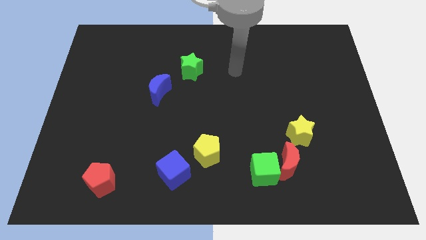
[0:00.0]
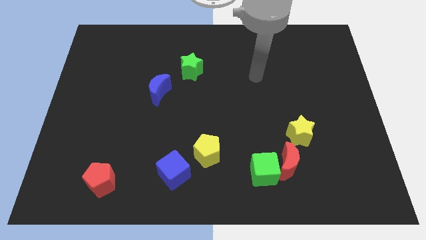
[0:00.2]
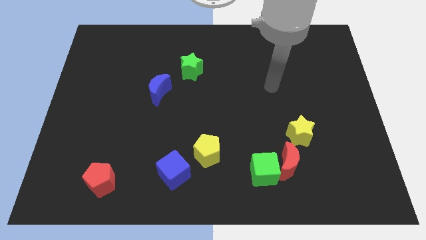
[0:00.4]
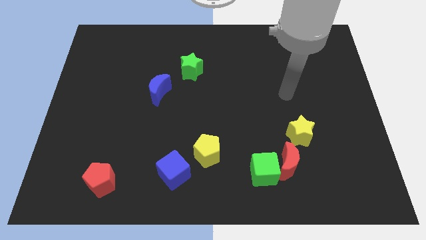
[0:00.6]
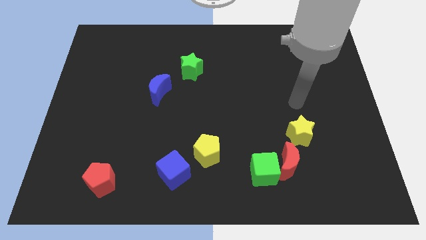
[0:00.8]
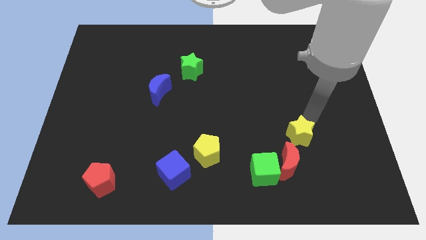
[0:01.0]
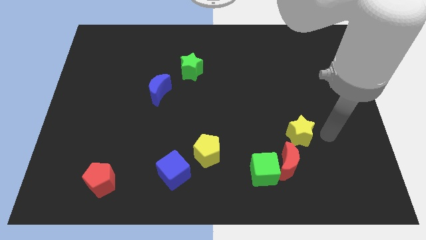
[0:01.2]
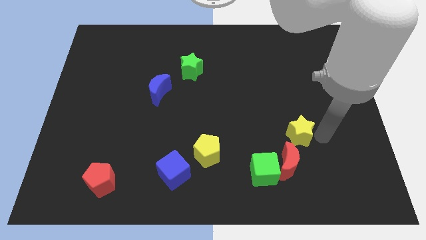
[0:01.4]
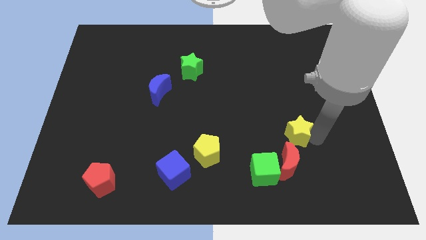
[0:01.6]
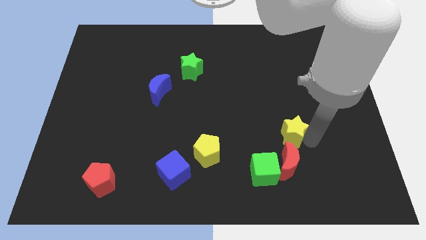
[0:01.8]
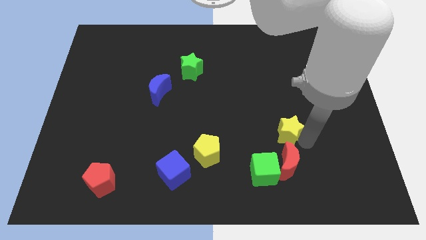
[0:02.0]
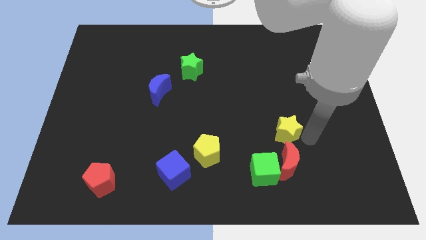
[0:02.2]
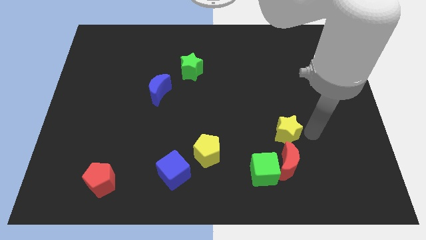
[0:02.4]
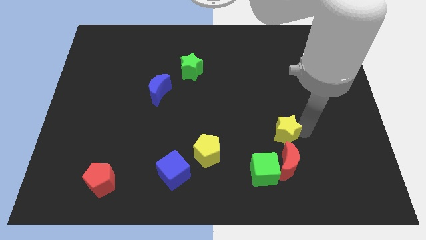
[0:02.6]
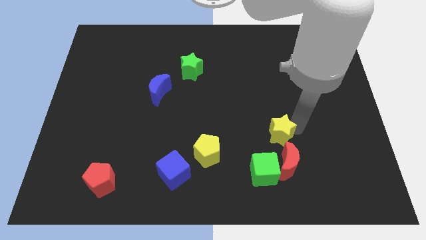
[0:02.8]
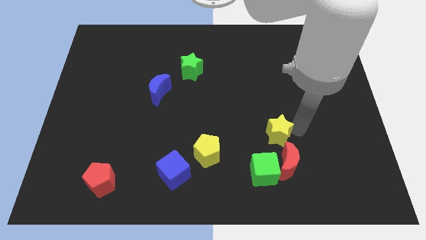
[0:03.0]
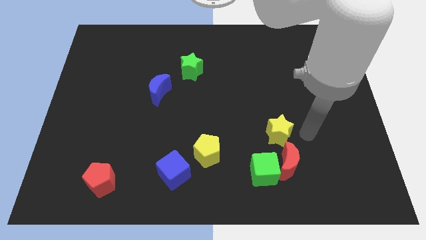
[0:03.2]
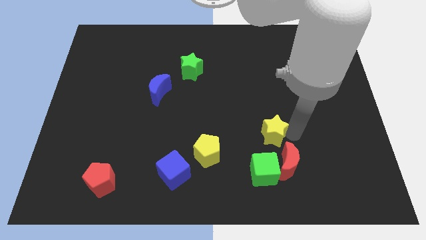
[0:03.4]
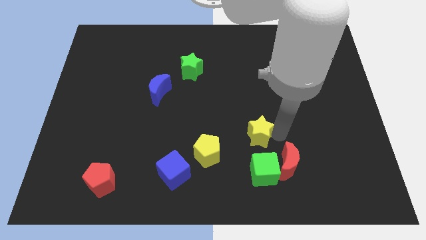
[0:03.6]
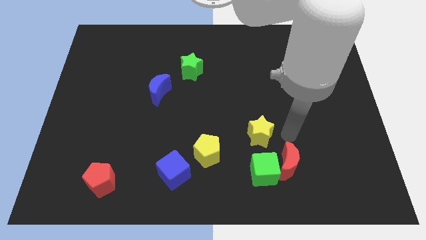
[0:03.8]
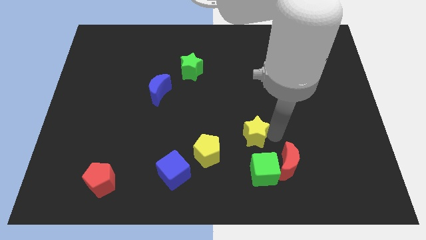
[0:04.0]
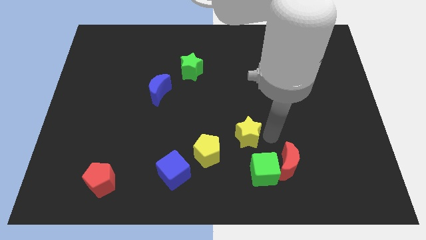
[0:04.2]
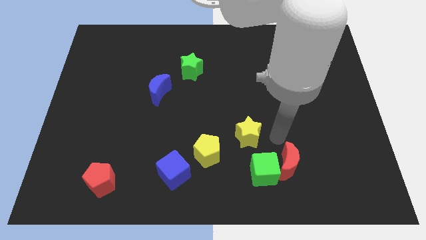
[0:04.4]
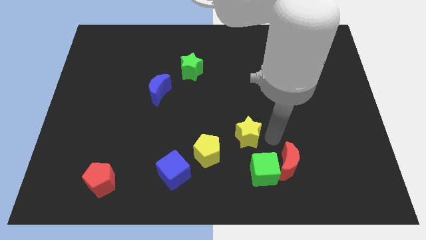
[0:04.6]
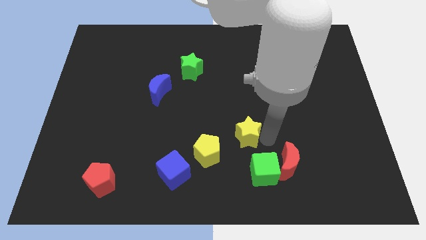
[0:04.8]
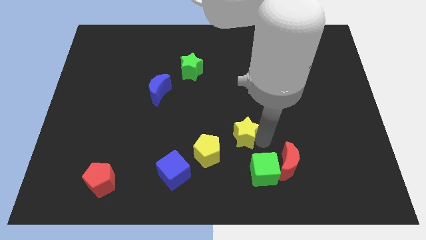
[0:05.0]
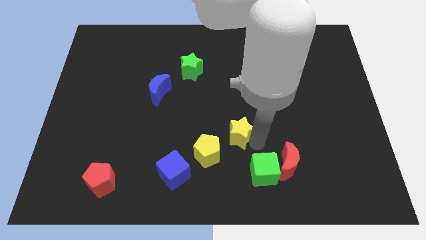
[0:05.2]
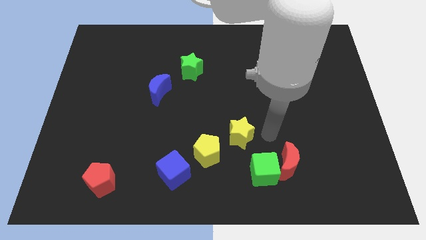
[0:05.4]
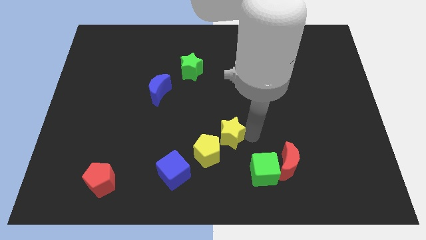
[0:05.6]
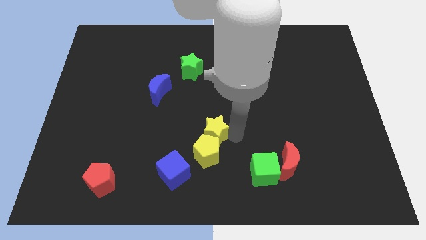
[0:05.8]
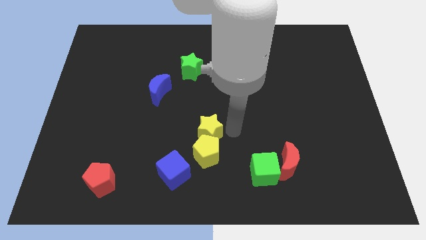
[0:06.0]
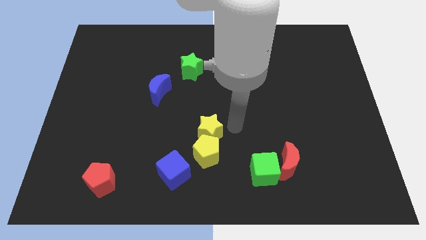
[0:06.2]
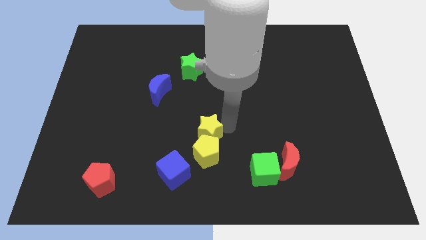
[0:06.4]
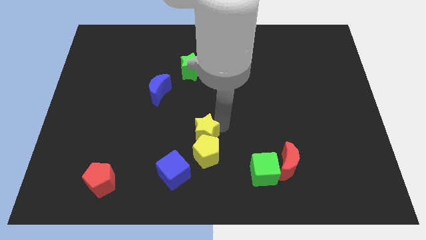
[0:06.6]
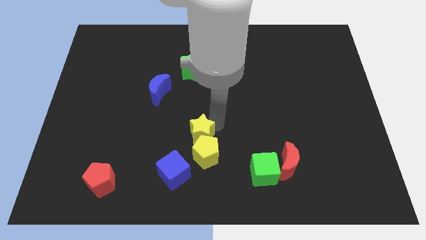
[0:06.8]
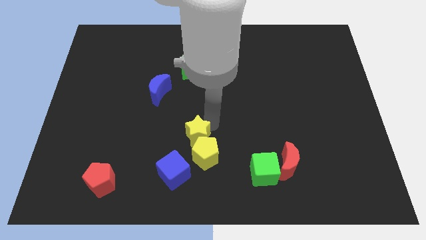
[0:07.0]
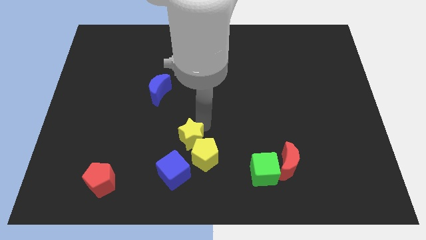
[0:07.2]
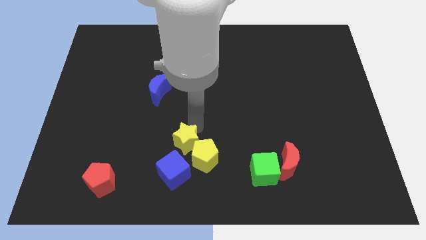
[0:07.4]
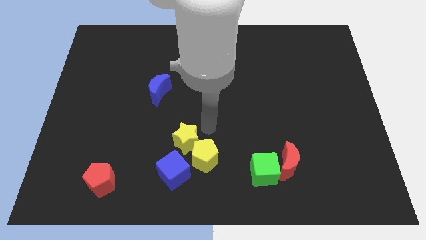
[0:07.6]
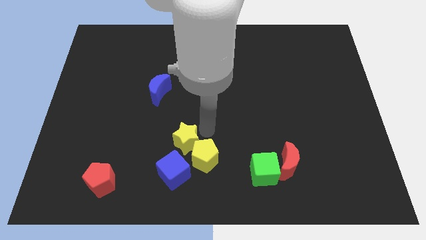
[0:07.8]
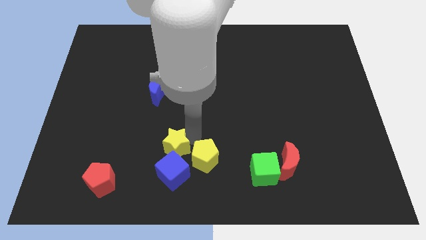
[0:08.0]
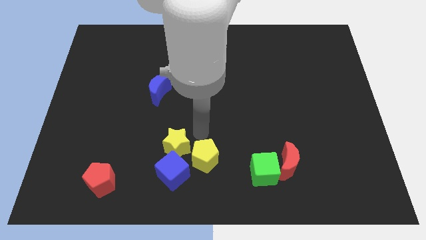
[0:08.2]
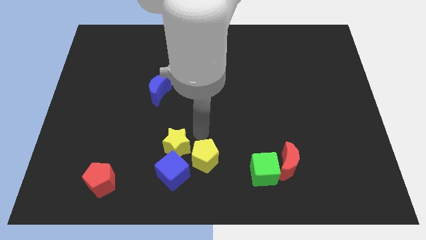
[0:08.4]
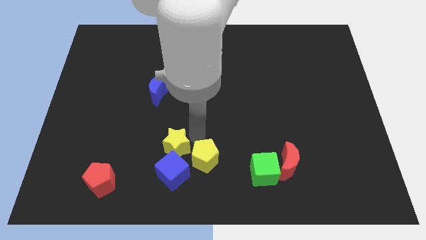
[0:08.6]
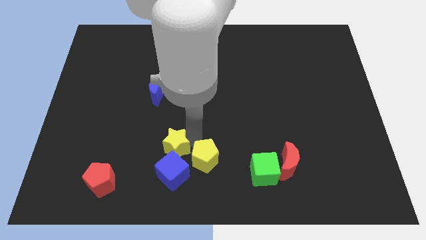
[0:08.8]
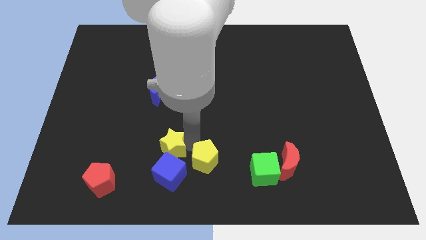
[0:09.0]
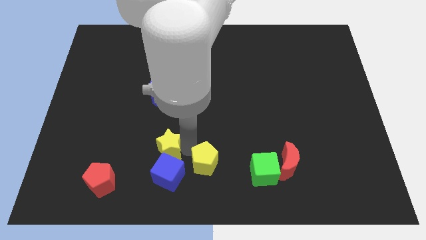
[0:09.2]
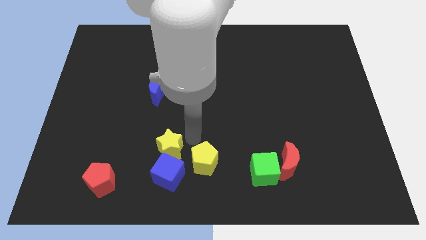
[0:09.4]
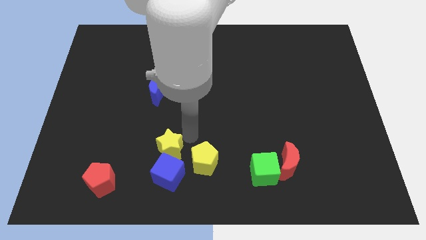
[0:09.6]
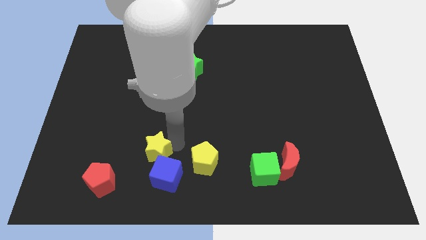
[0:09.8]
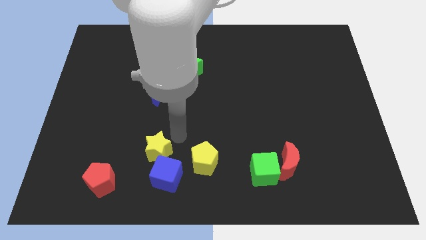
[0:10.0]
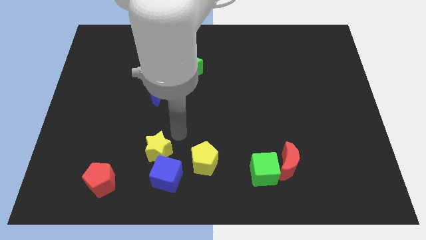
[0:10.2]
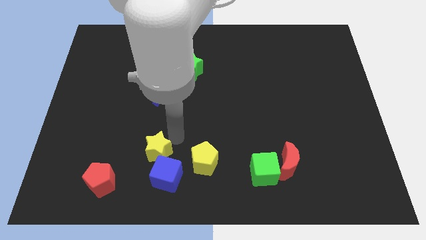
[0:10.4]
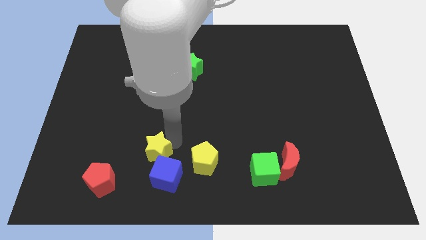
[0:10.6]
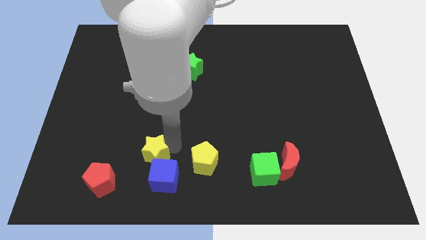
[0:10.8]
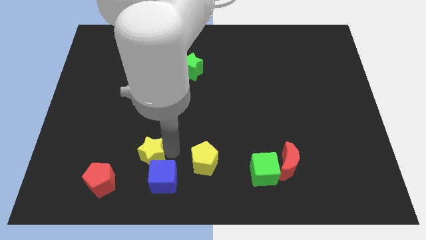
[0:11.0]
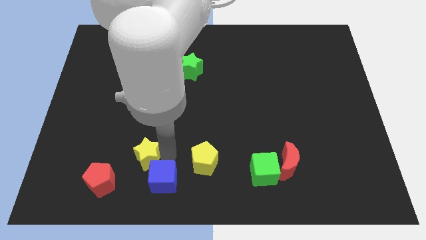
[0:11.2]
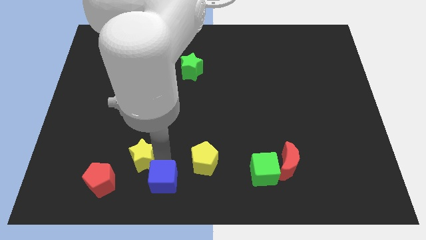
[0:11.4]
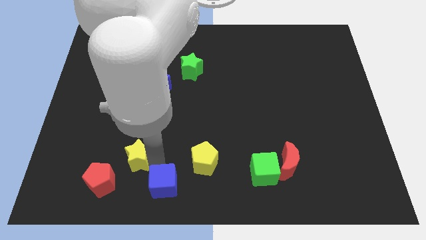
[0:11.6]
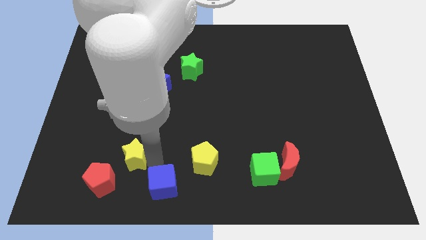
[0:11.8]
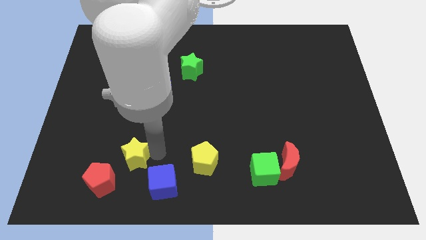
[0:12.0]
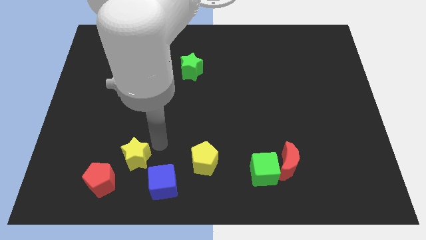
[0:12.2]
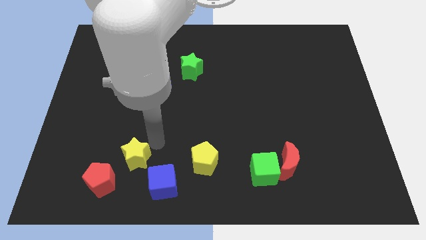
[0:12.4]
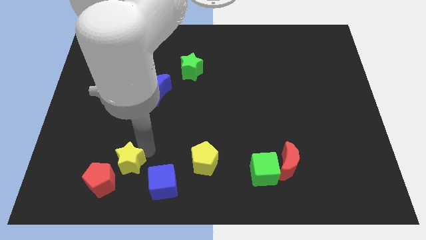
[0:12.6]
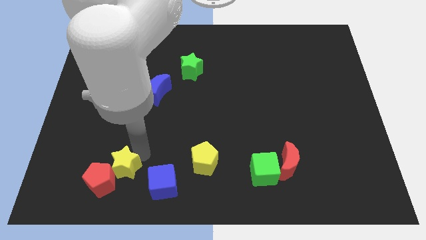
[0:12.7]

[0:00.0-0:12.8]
push the yellow star close to the red pentagon
